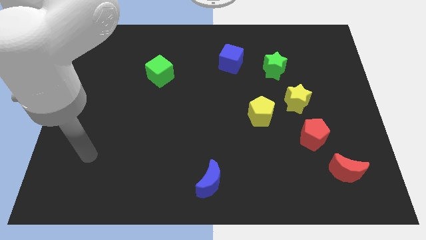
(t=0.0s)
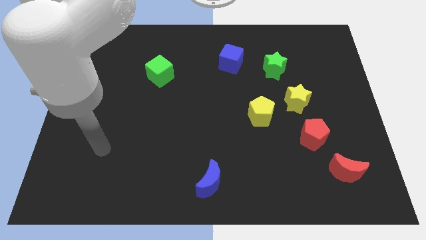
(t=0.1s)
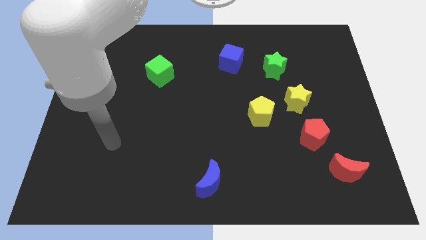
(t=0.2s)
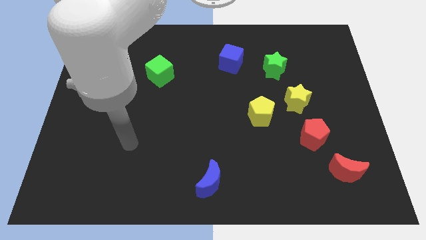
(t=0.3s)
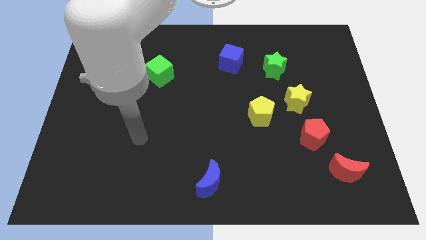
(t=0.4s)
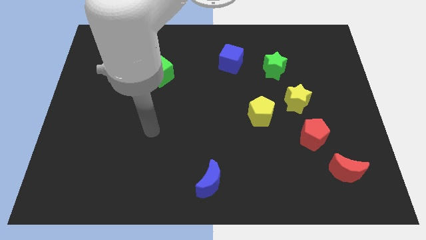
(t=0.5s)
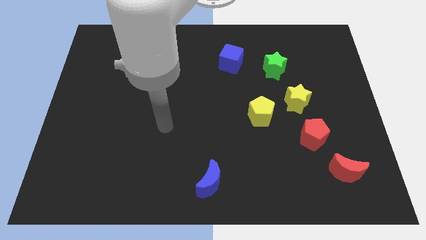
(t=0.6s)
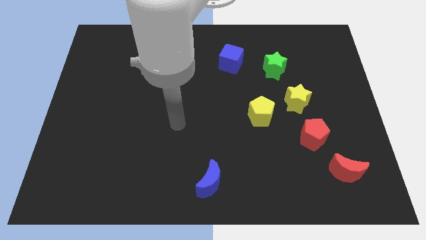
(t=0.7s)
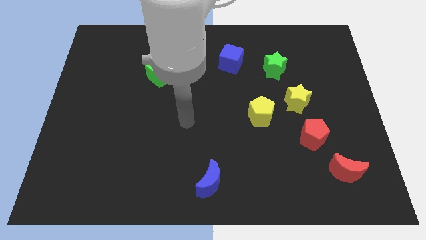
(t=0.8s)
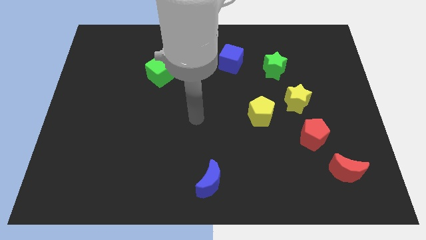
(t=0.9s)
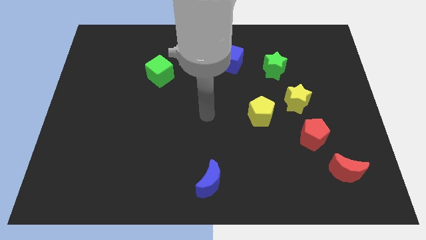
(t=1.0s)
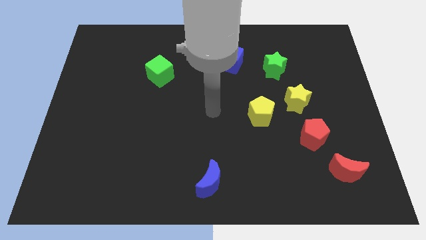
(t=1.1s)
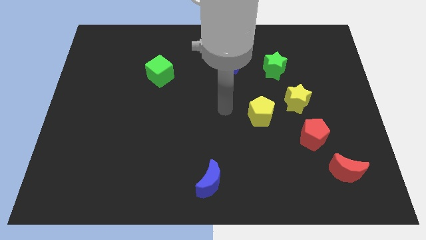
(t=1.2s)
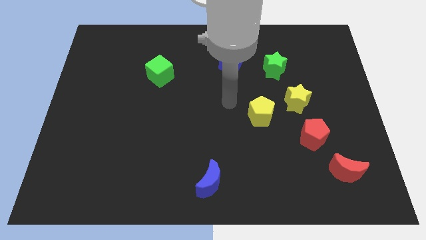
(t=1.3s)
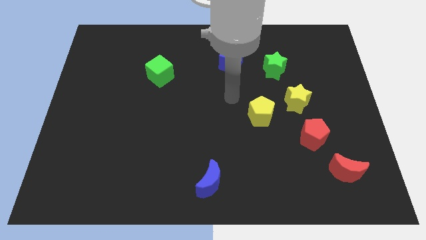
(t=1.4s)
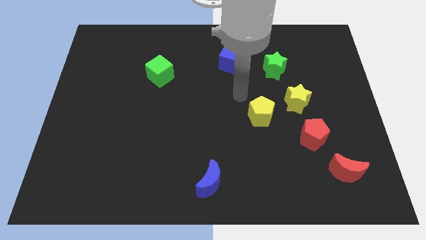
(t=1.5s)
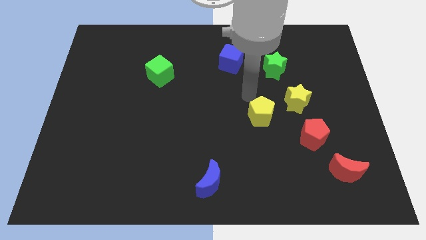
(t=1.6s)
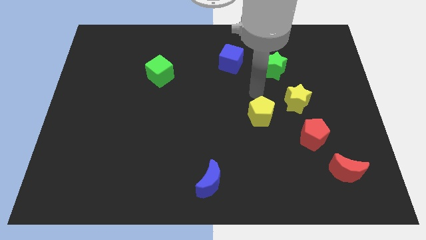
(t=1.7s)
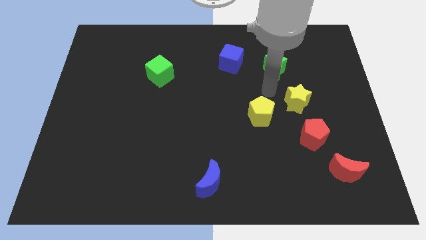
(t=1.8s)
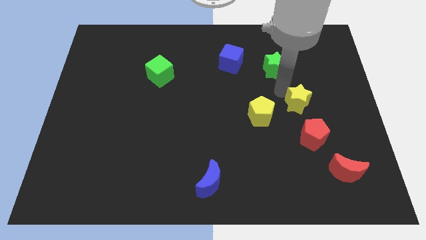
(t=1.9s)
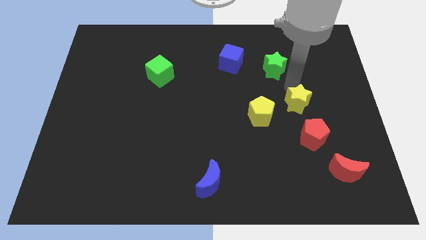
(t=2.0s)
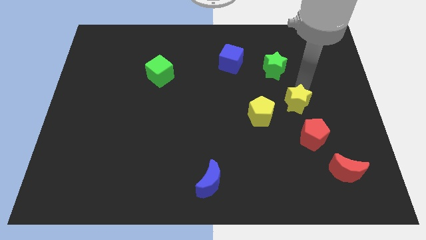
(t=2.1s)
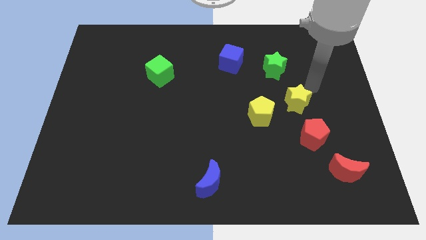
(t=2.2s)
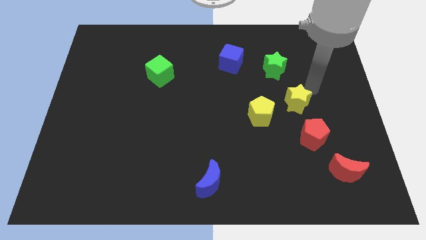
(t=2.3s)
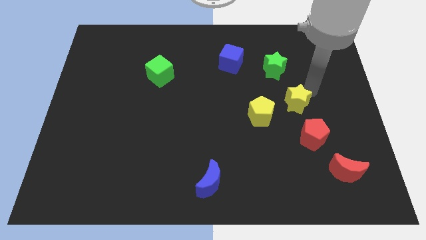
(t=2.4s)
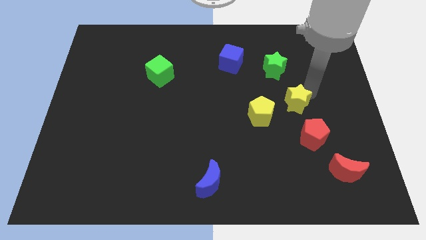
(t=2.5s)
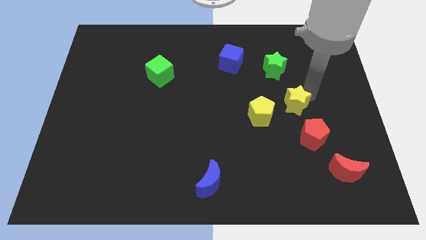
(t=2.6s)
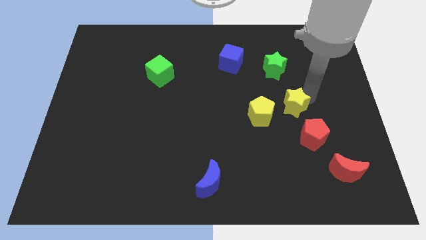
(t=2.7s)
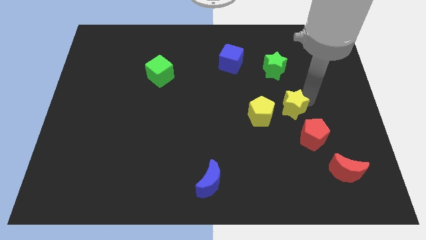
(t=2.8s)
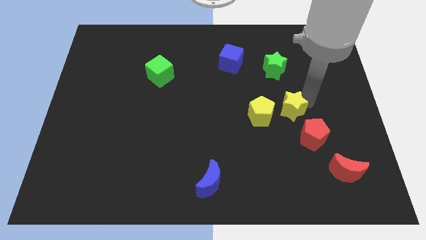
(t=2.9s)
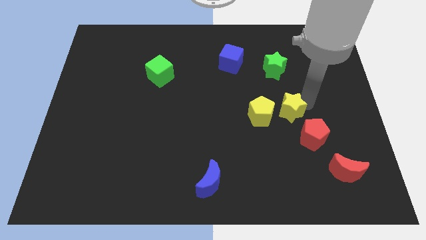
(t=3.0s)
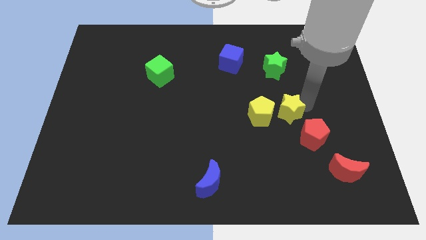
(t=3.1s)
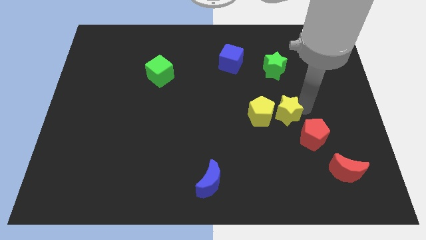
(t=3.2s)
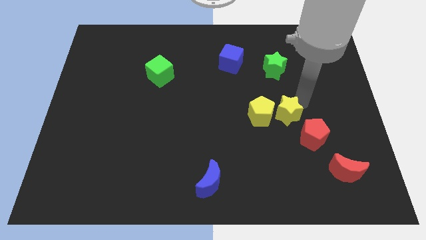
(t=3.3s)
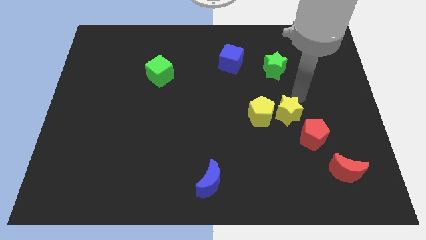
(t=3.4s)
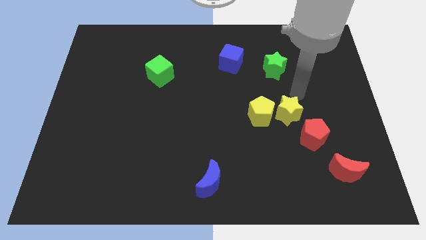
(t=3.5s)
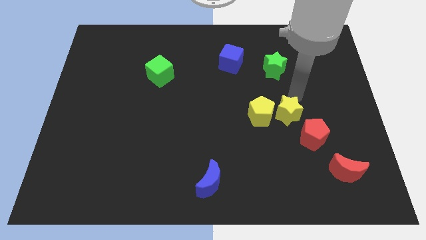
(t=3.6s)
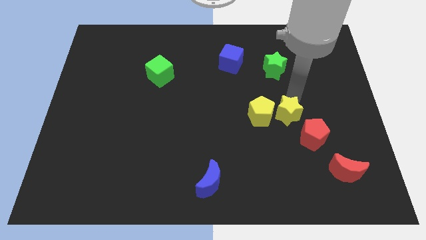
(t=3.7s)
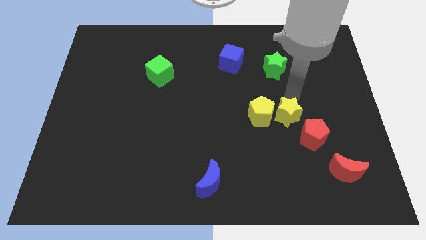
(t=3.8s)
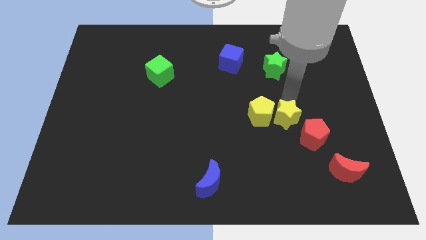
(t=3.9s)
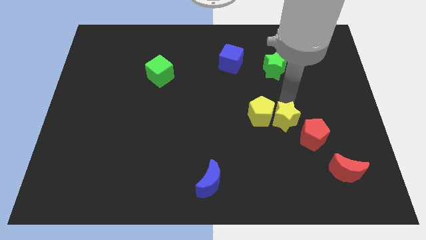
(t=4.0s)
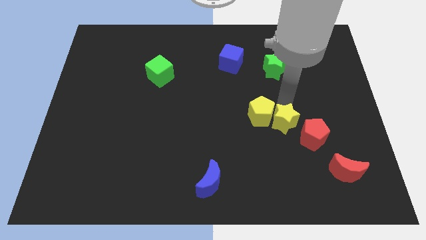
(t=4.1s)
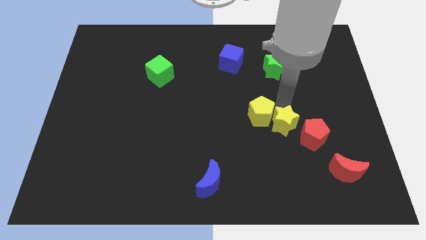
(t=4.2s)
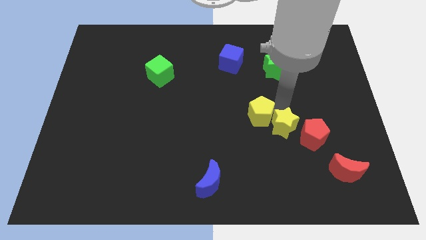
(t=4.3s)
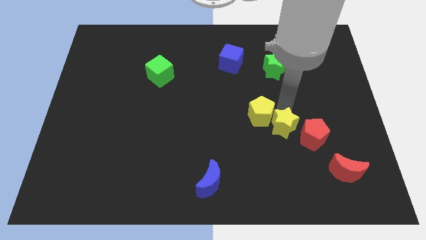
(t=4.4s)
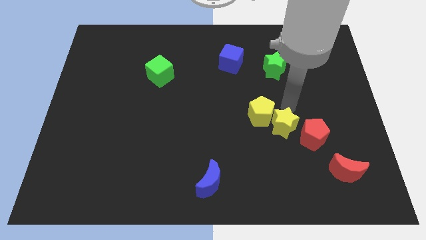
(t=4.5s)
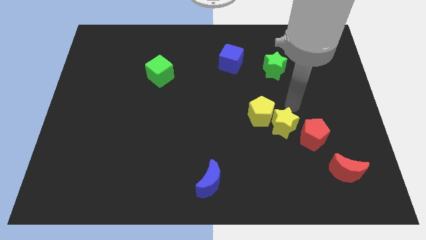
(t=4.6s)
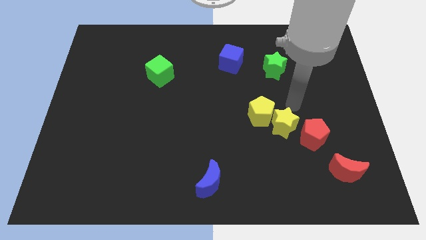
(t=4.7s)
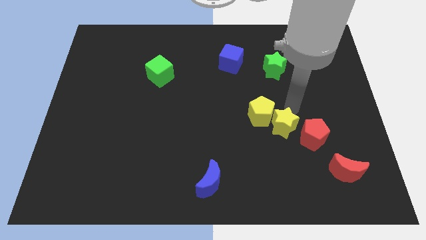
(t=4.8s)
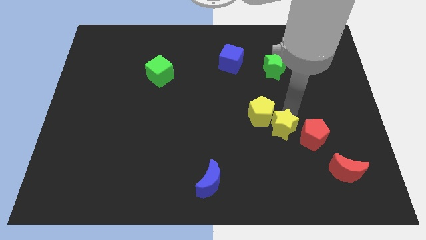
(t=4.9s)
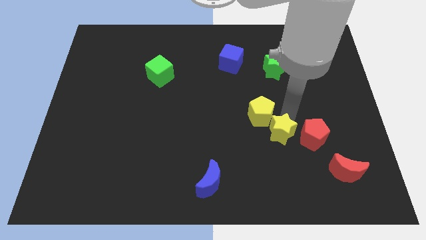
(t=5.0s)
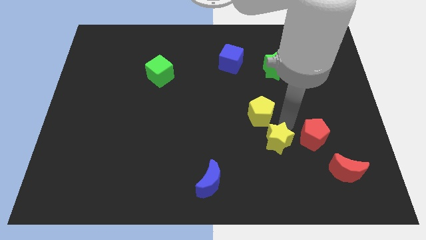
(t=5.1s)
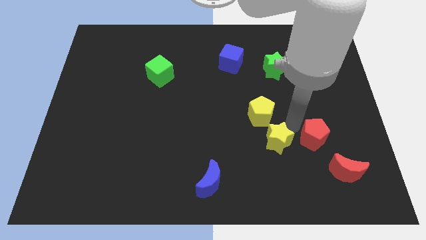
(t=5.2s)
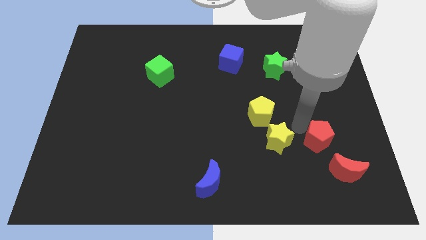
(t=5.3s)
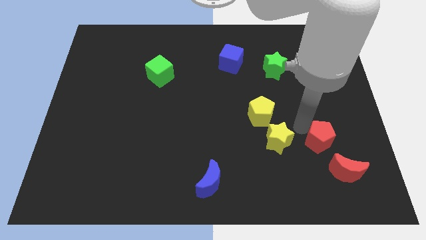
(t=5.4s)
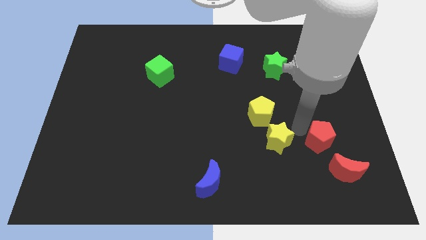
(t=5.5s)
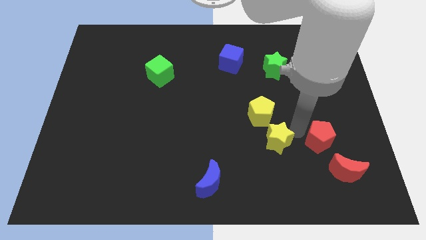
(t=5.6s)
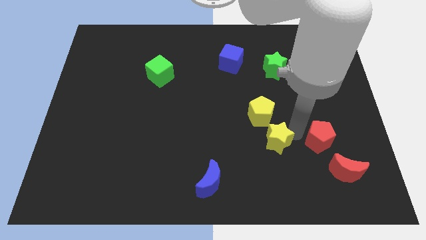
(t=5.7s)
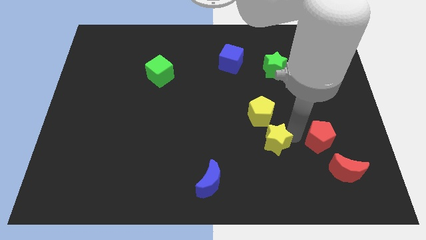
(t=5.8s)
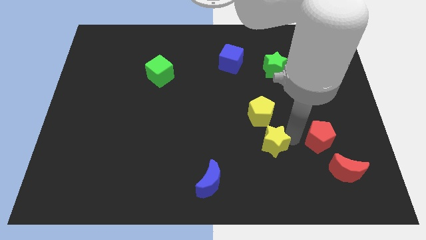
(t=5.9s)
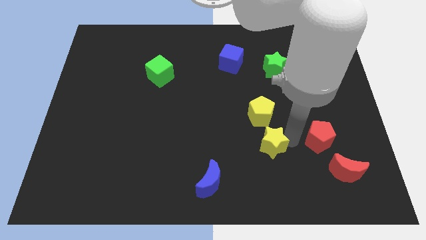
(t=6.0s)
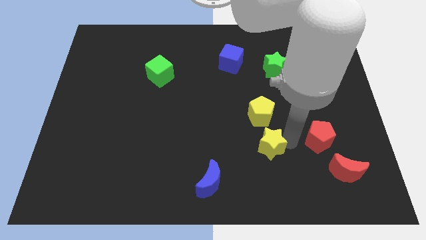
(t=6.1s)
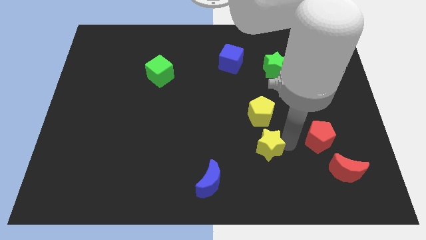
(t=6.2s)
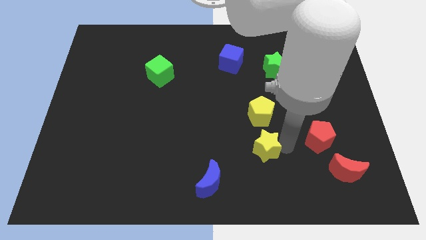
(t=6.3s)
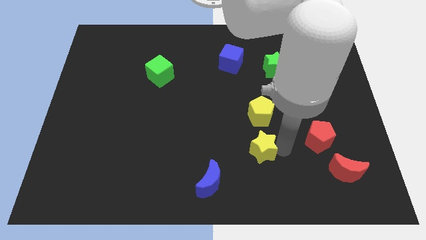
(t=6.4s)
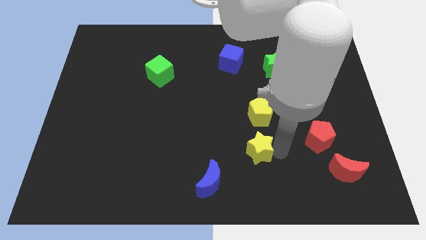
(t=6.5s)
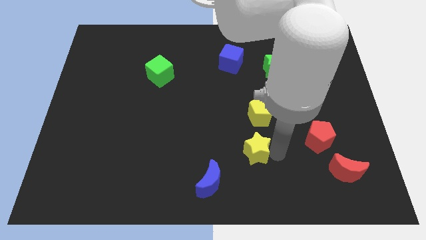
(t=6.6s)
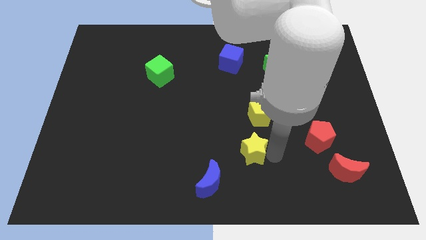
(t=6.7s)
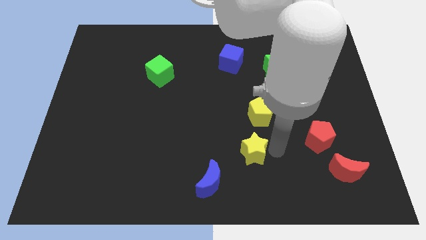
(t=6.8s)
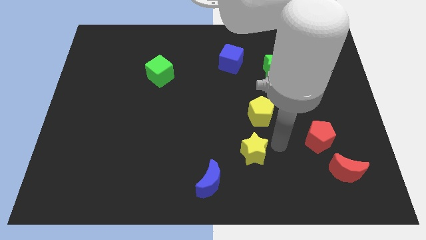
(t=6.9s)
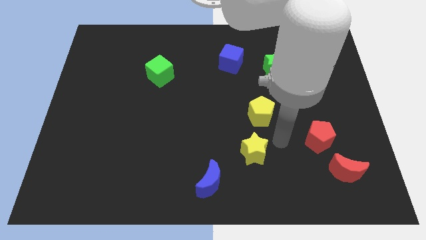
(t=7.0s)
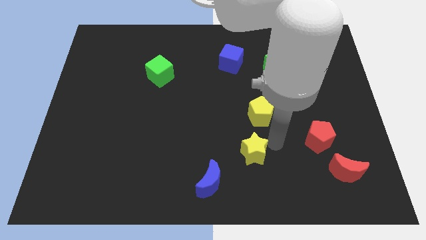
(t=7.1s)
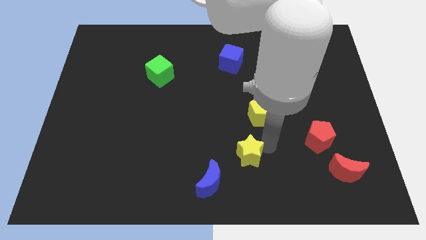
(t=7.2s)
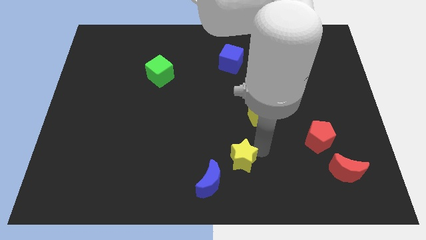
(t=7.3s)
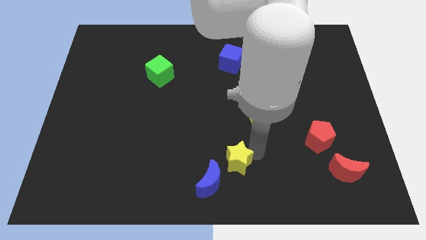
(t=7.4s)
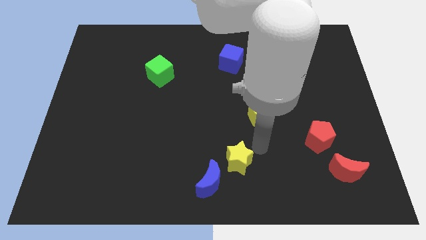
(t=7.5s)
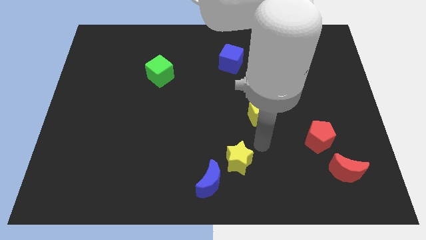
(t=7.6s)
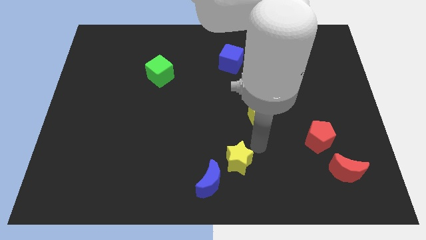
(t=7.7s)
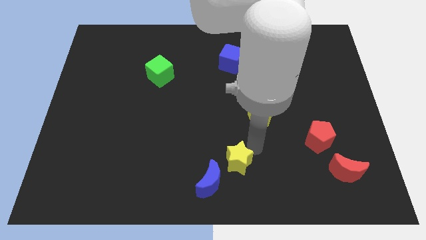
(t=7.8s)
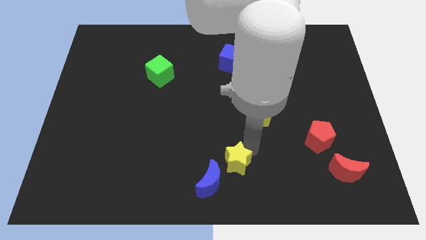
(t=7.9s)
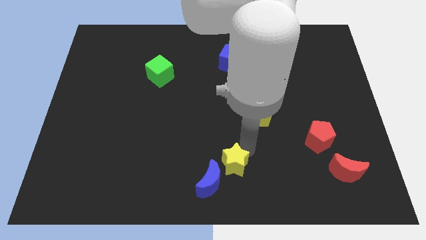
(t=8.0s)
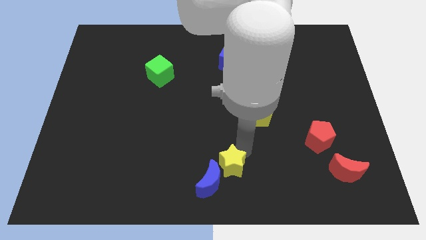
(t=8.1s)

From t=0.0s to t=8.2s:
slide the yellow star next to the blue moon
